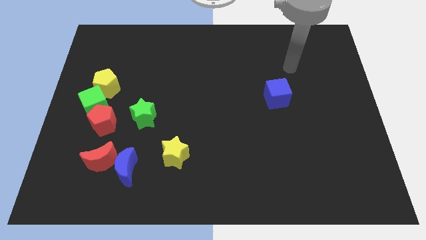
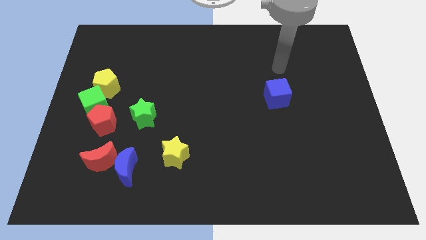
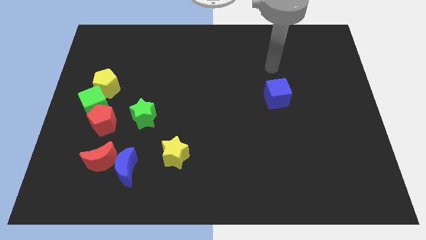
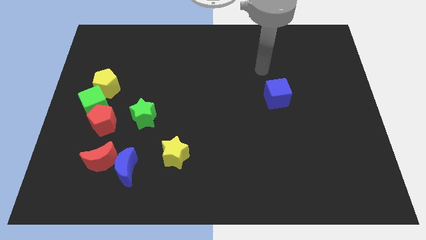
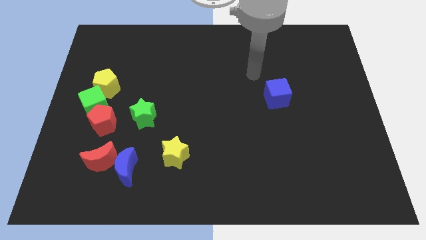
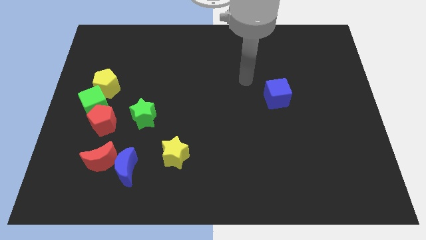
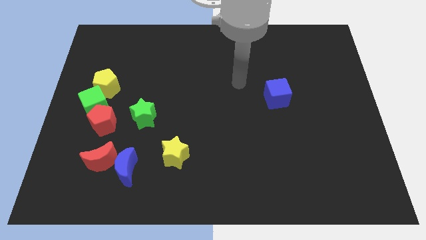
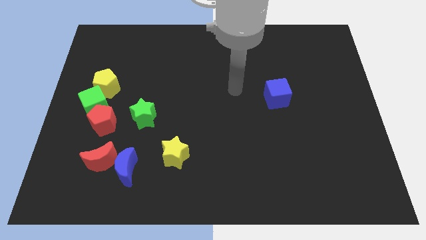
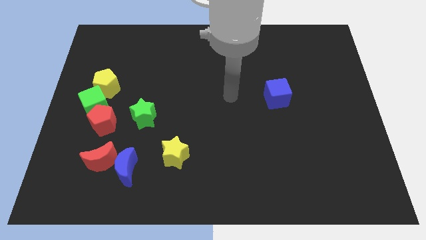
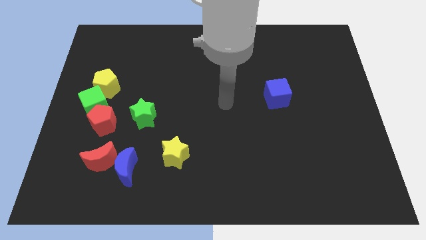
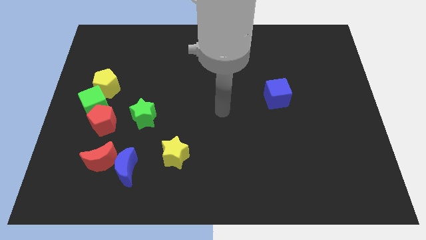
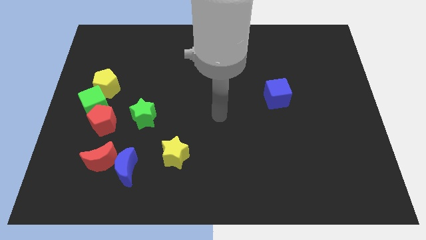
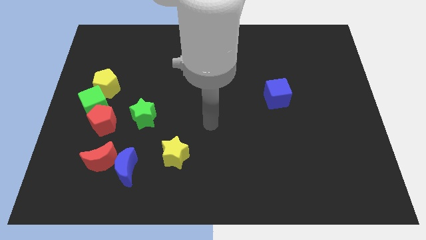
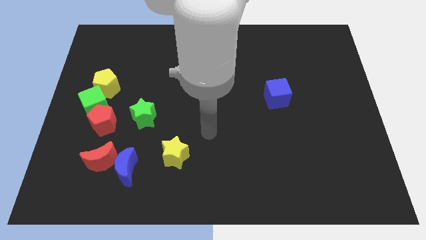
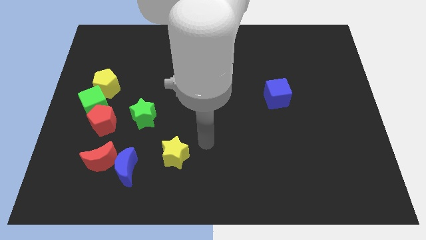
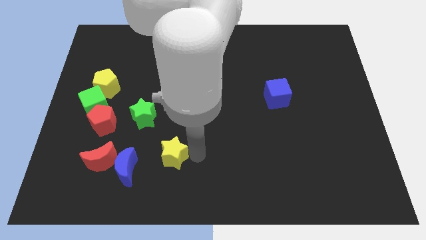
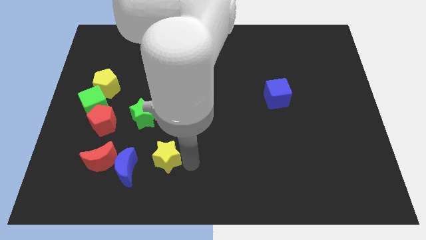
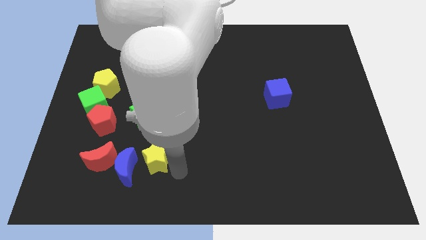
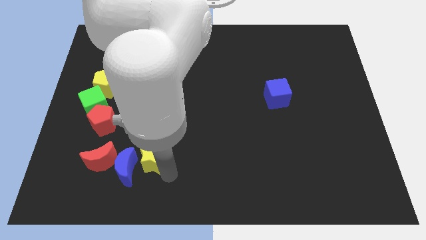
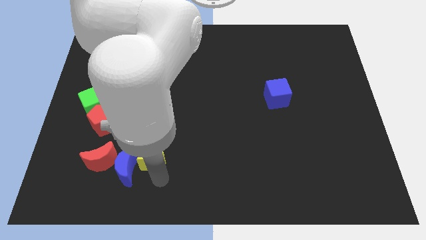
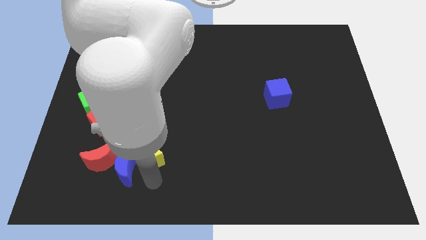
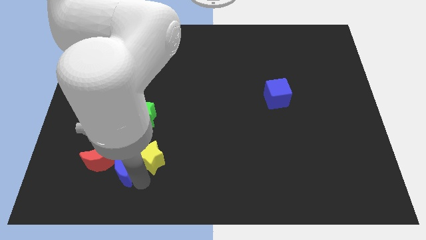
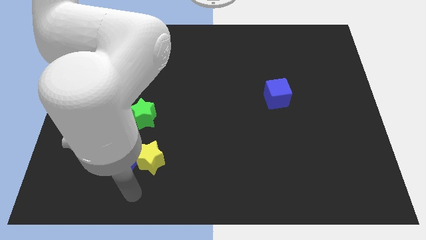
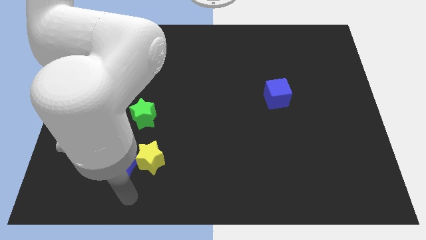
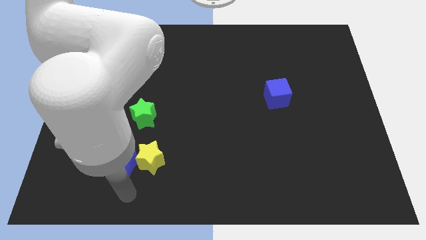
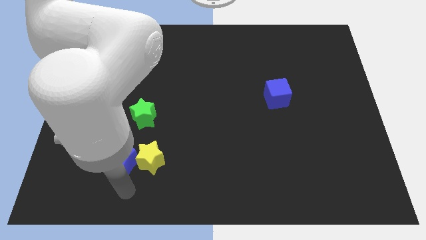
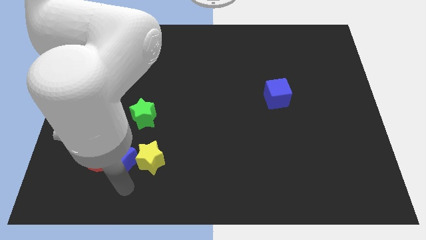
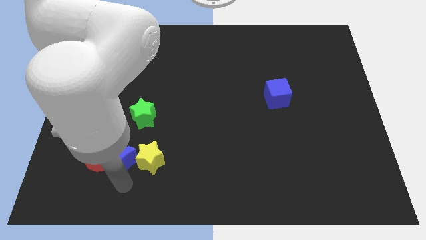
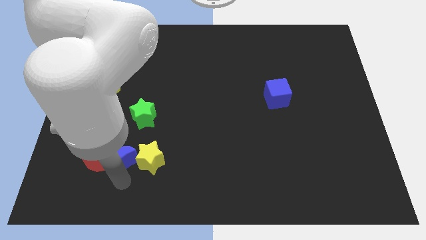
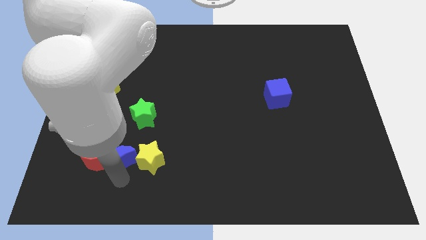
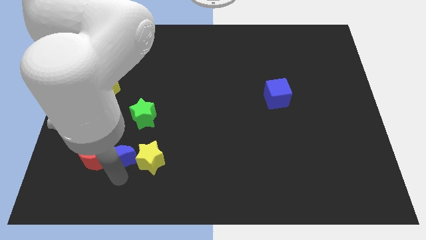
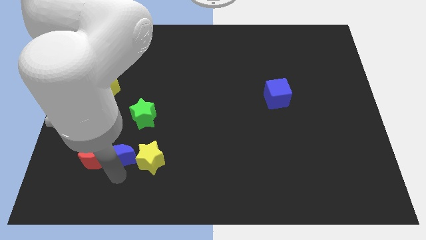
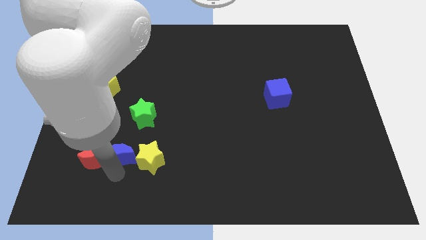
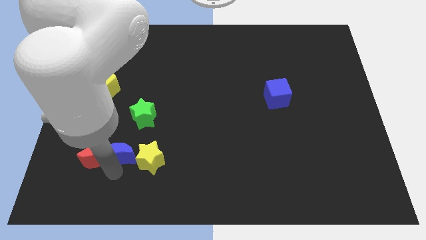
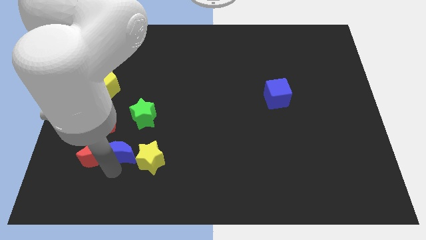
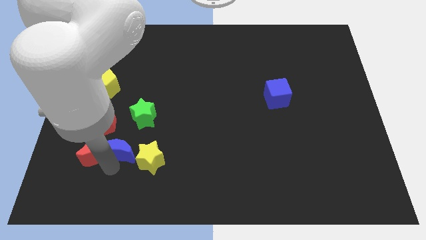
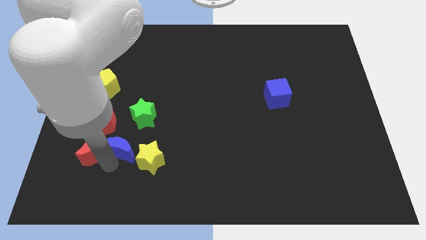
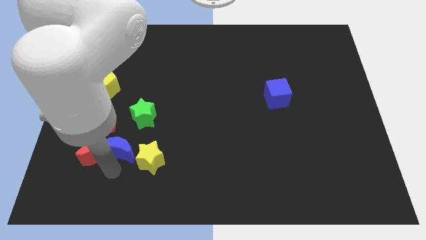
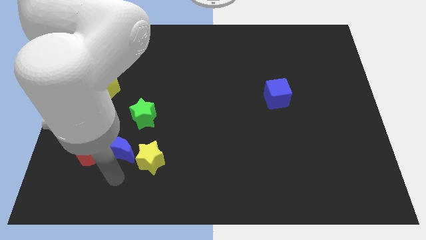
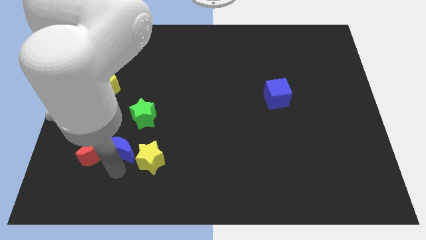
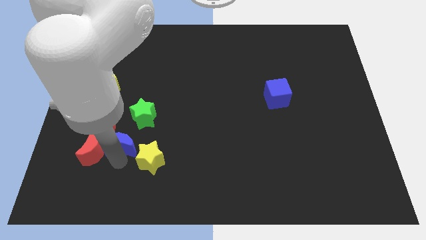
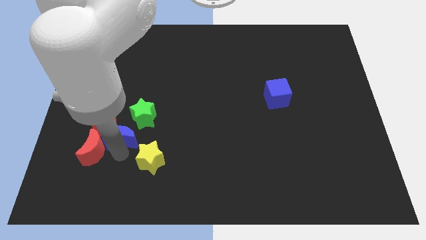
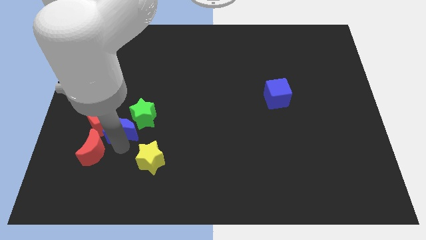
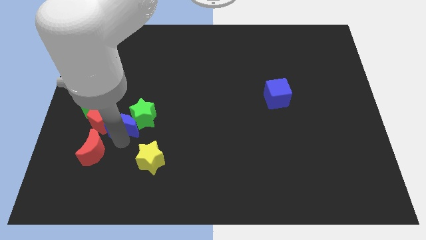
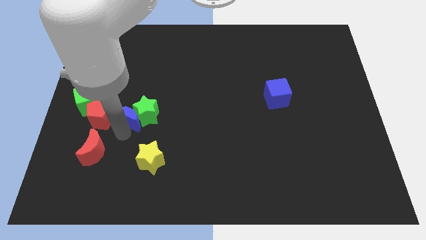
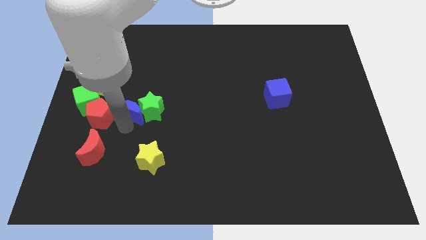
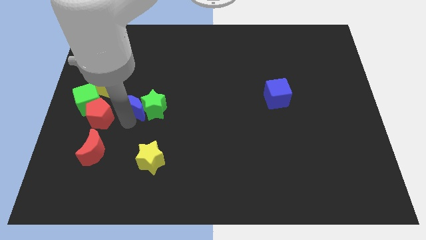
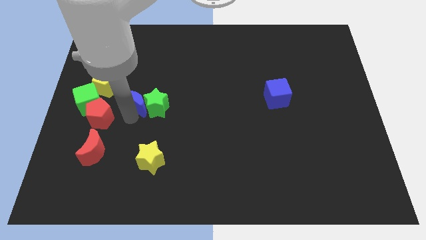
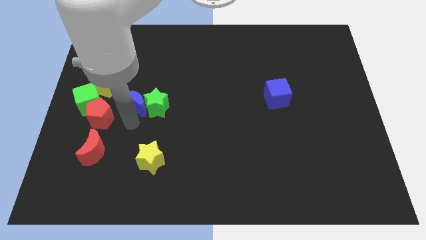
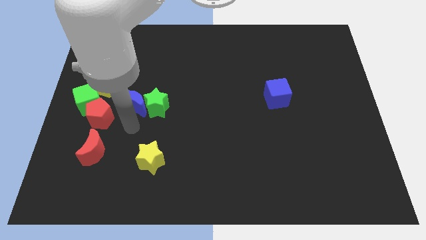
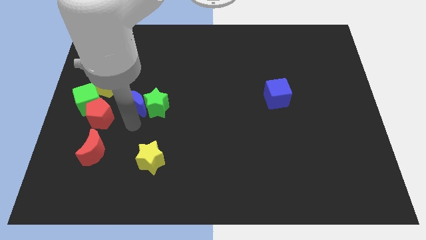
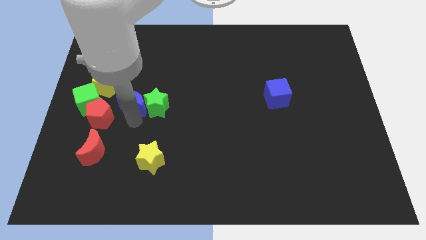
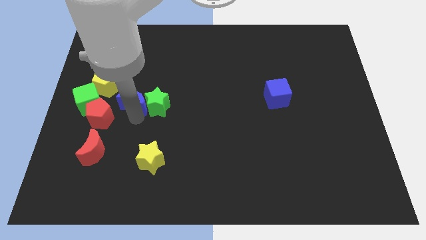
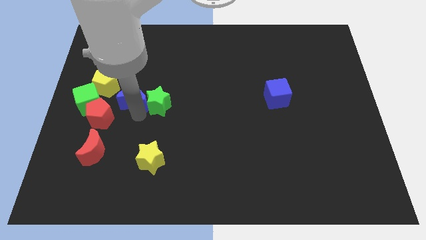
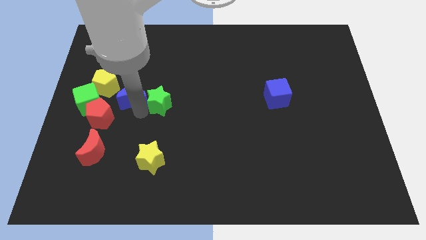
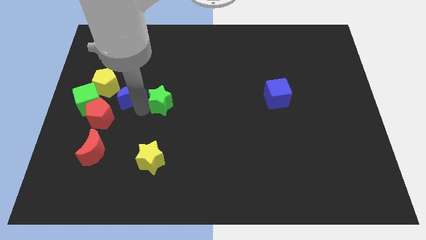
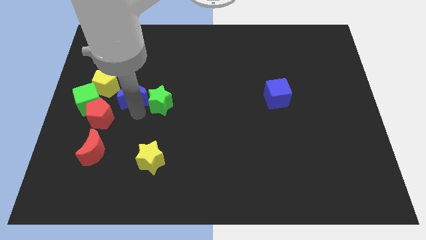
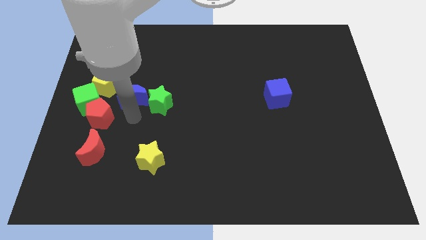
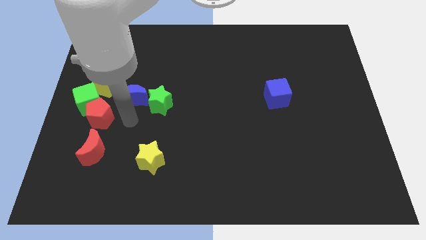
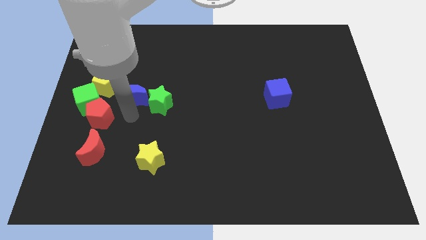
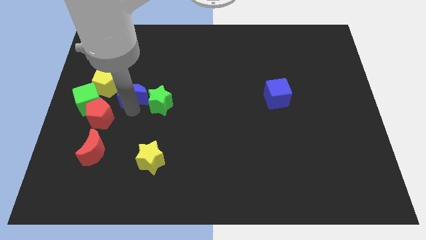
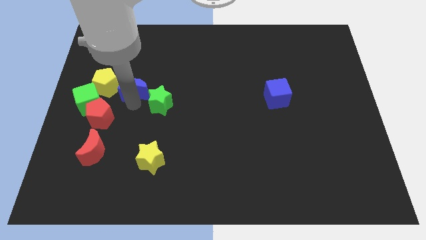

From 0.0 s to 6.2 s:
move the blue moon upwards

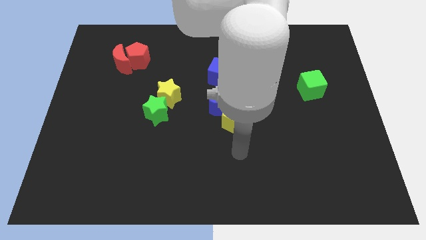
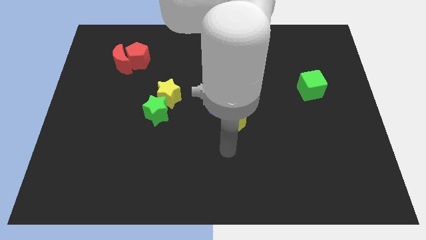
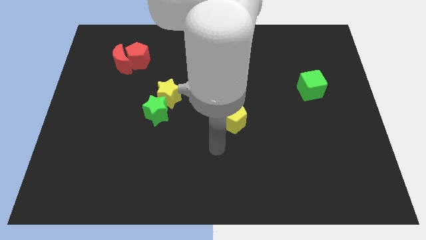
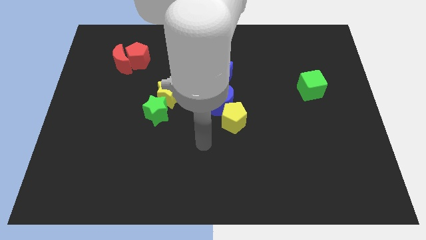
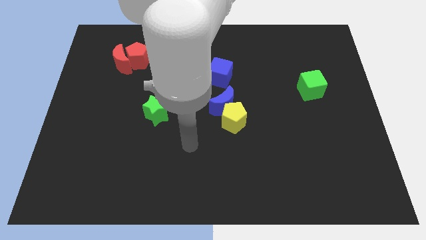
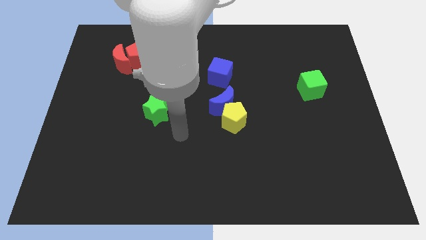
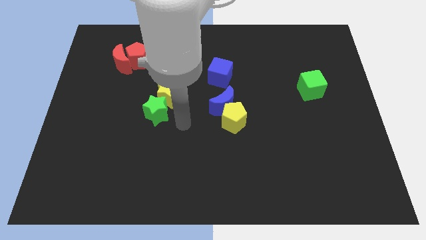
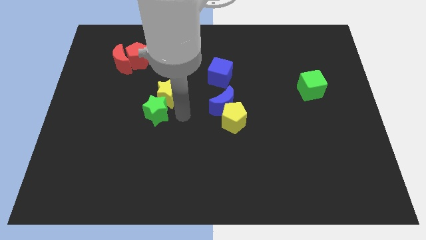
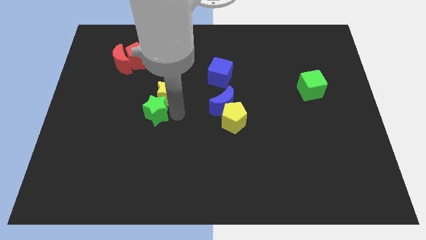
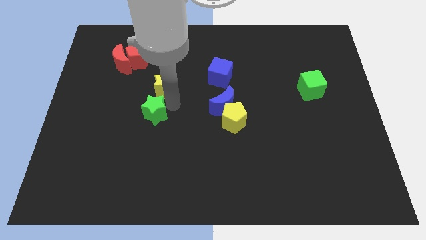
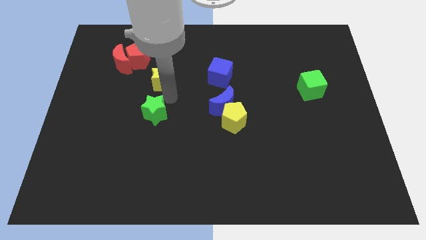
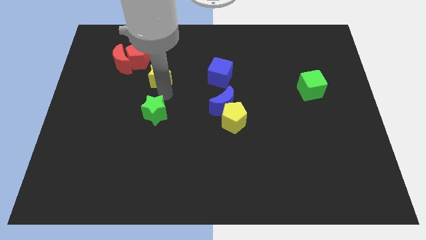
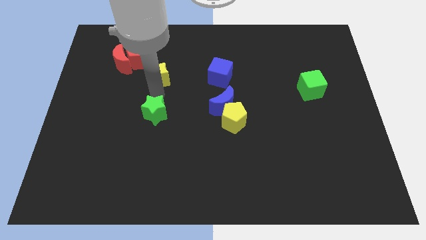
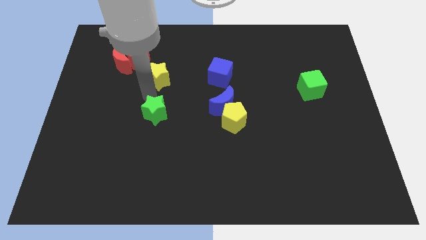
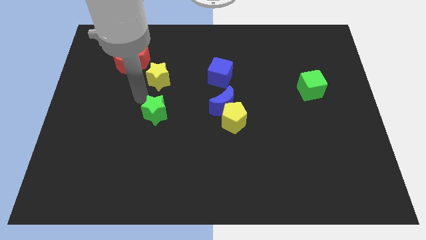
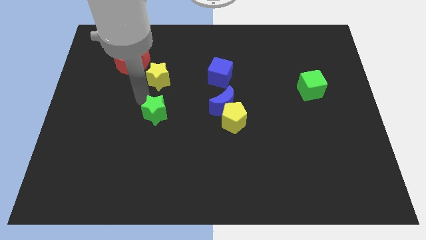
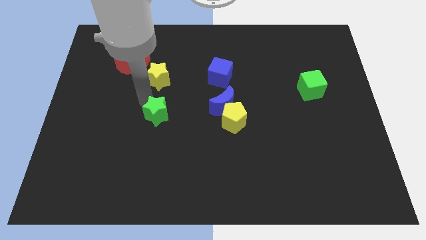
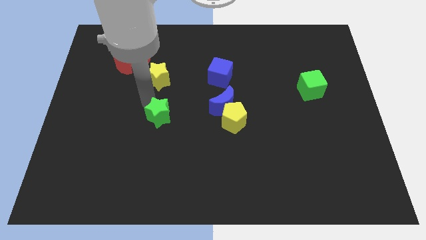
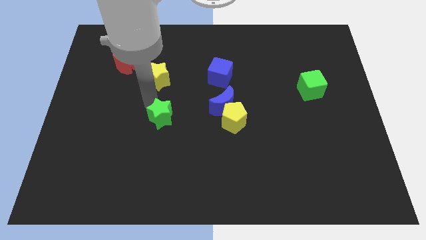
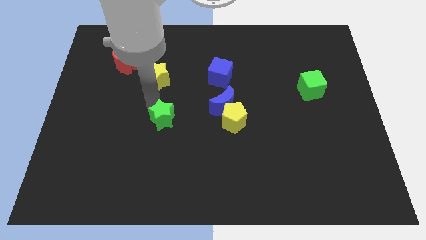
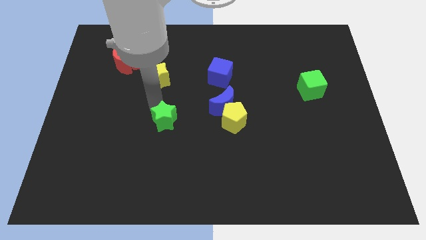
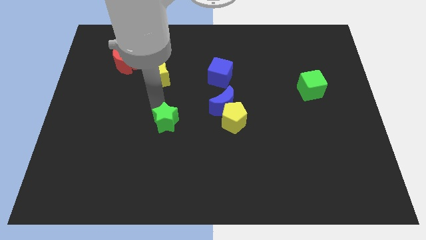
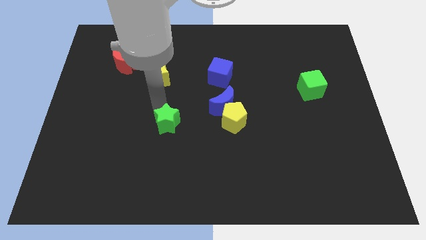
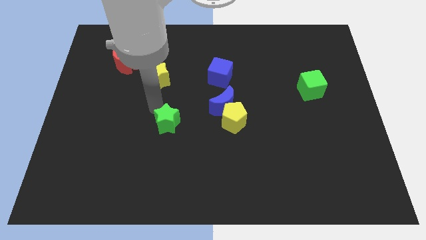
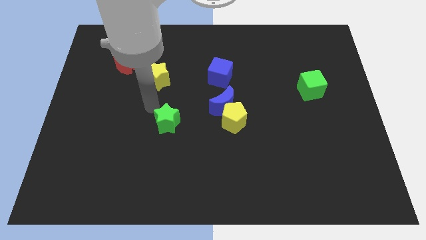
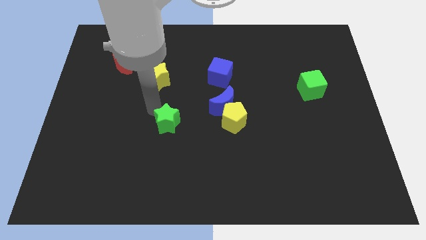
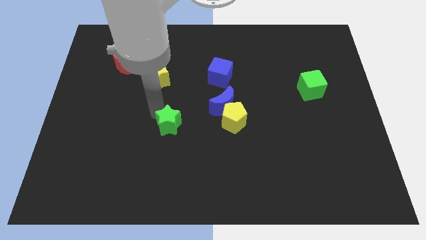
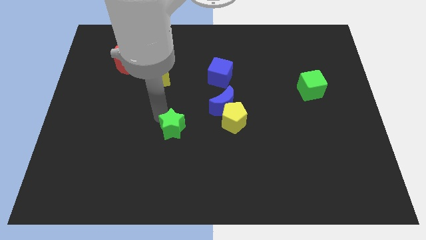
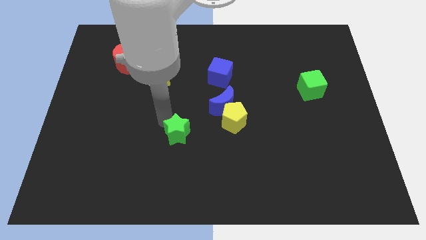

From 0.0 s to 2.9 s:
slightly slide the green star diagonally downwards and to the right
